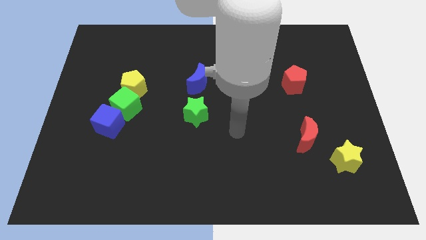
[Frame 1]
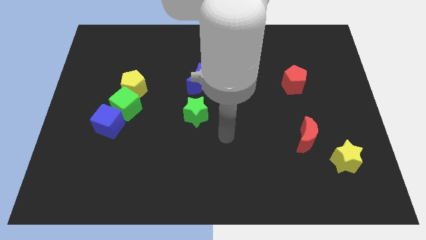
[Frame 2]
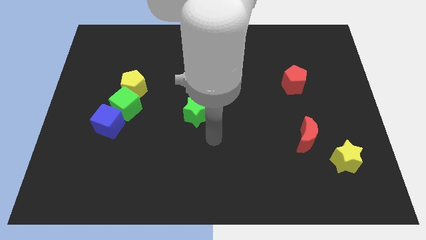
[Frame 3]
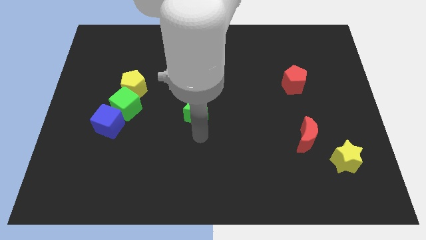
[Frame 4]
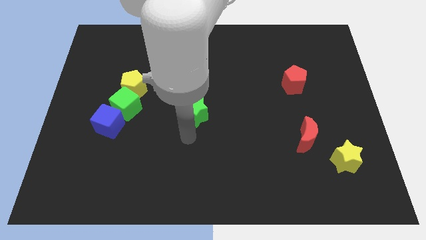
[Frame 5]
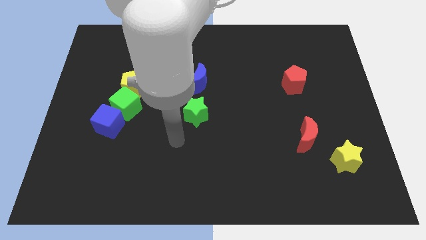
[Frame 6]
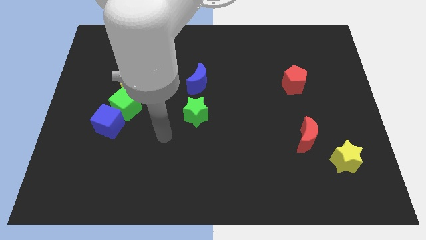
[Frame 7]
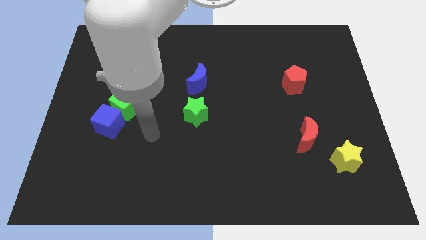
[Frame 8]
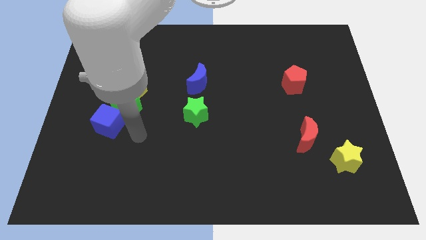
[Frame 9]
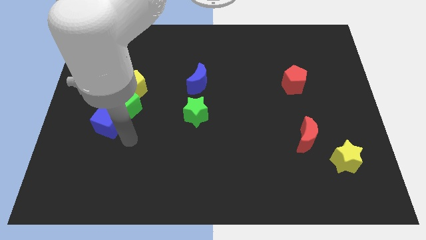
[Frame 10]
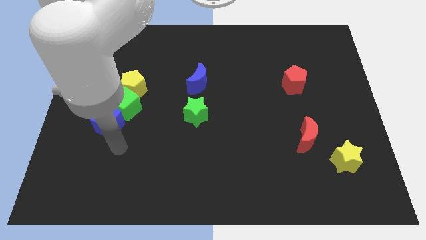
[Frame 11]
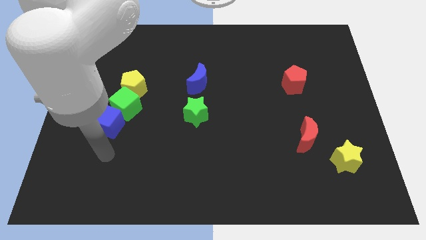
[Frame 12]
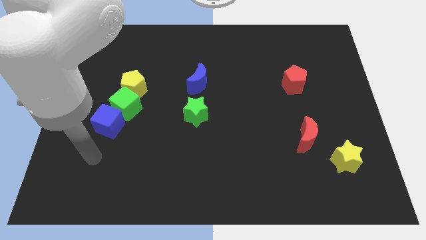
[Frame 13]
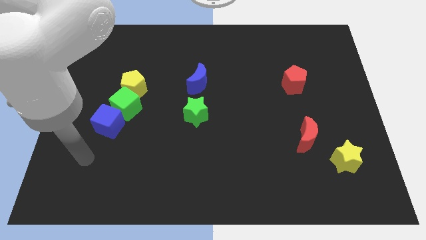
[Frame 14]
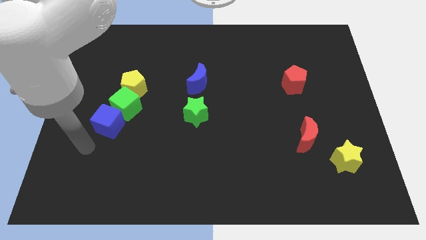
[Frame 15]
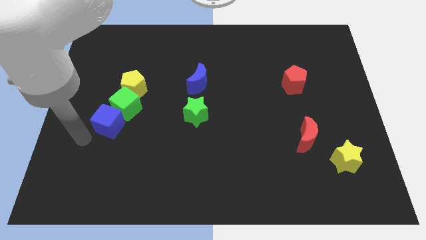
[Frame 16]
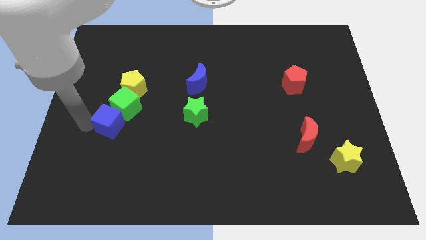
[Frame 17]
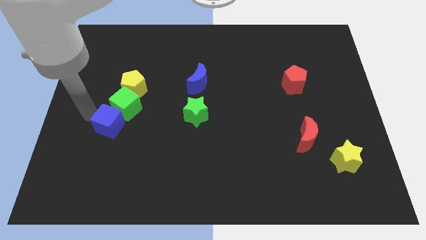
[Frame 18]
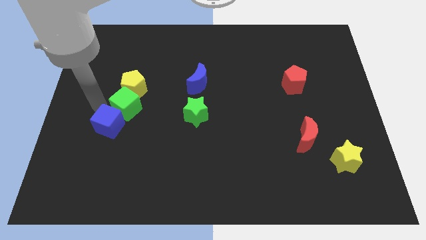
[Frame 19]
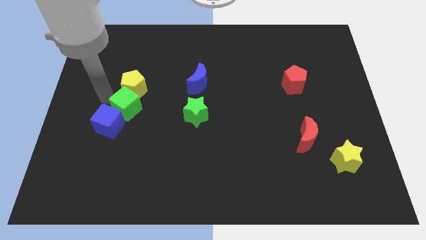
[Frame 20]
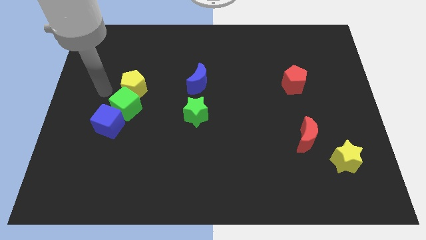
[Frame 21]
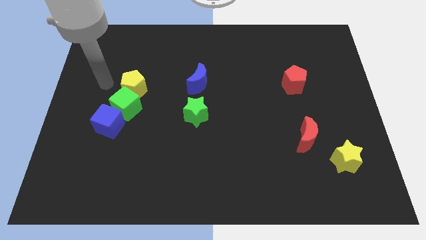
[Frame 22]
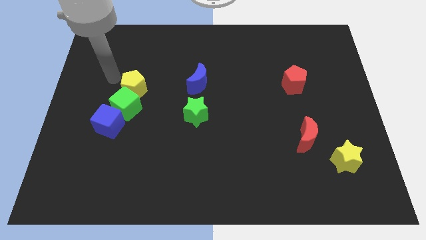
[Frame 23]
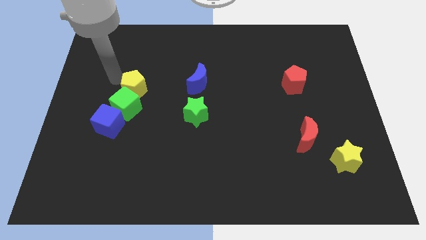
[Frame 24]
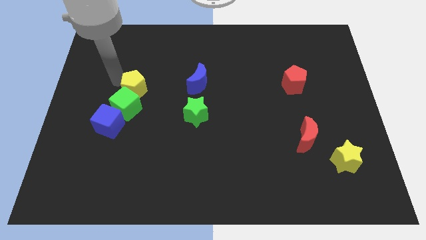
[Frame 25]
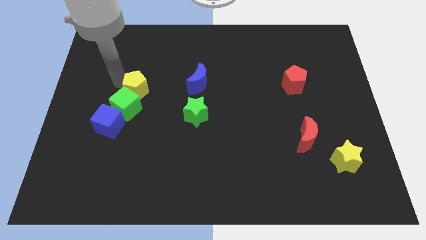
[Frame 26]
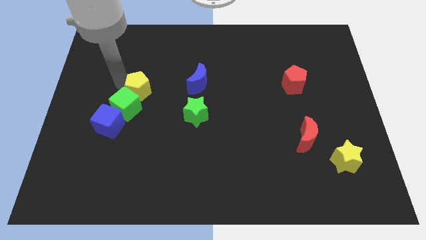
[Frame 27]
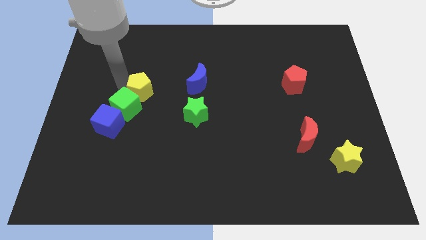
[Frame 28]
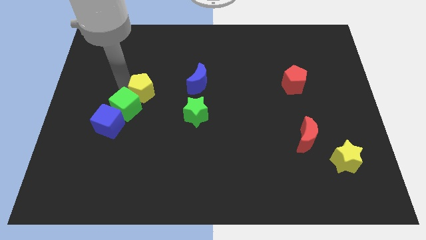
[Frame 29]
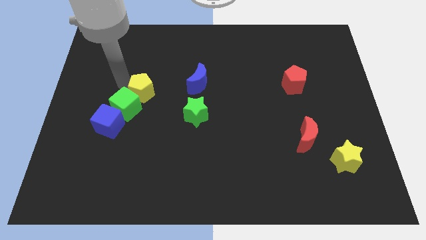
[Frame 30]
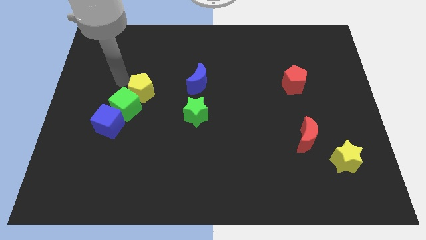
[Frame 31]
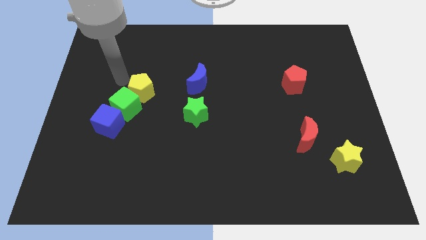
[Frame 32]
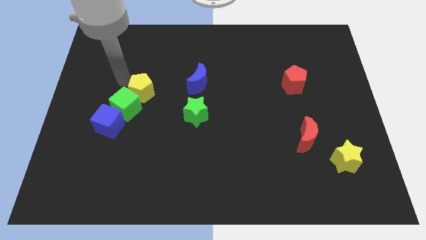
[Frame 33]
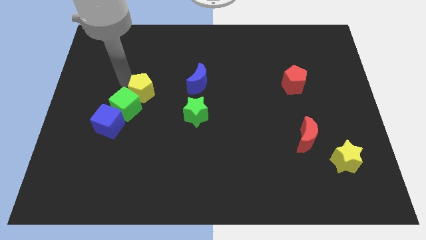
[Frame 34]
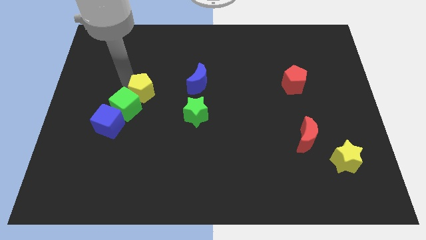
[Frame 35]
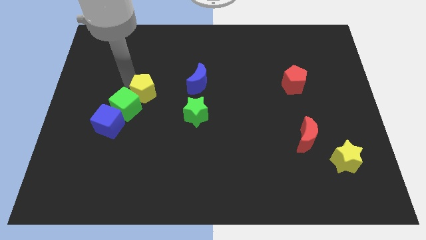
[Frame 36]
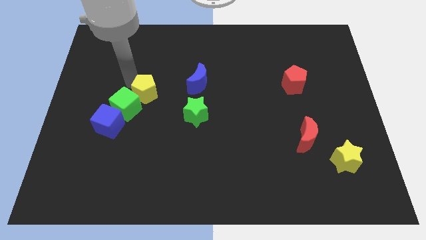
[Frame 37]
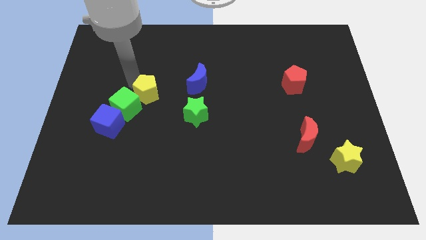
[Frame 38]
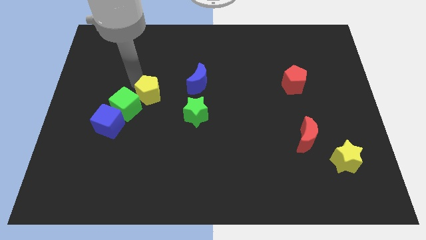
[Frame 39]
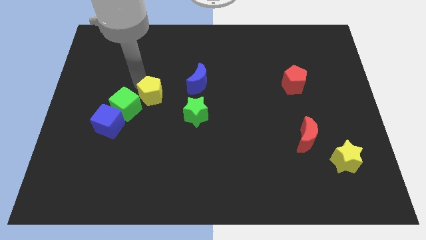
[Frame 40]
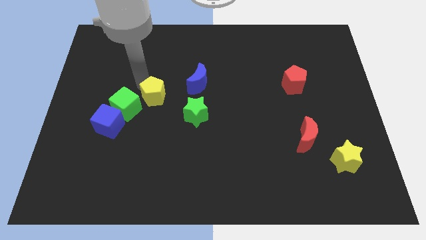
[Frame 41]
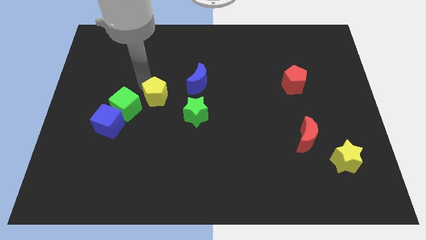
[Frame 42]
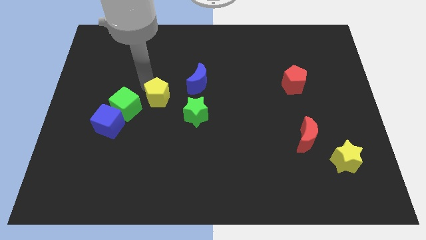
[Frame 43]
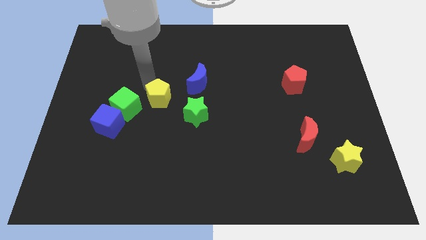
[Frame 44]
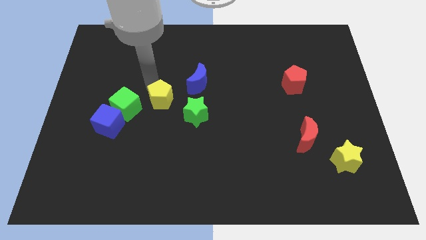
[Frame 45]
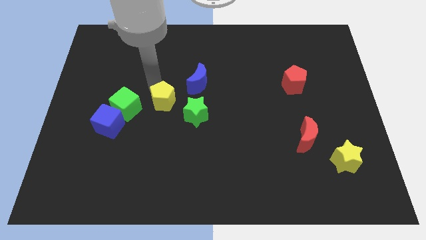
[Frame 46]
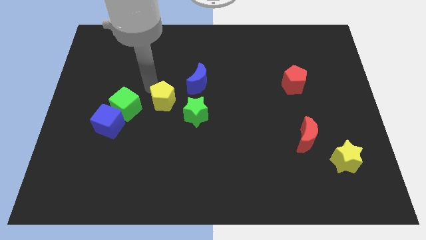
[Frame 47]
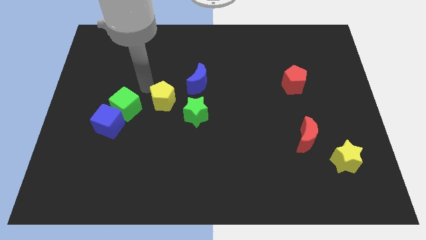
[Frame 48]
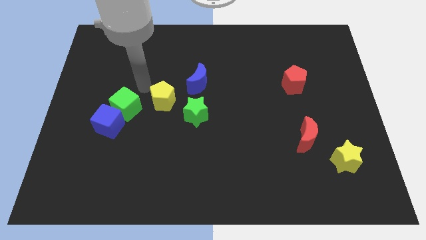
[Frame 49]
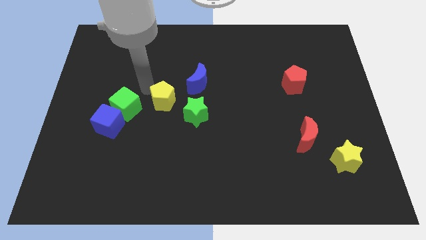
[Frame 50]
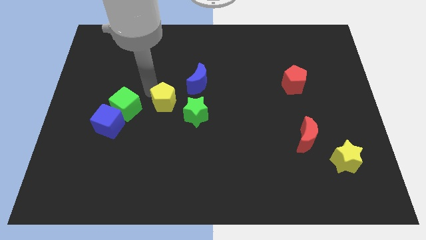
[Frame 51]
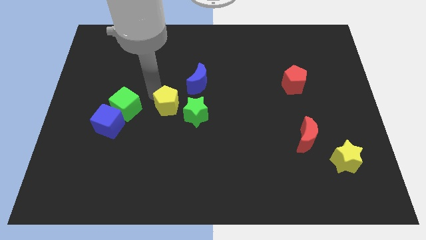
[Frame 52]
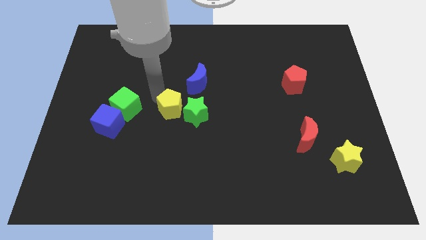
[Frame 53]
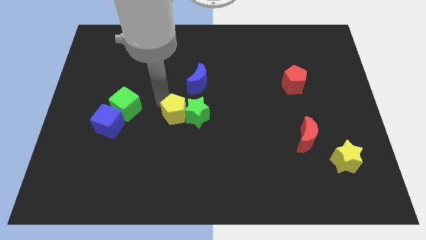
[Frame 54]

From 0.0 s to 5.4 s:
push the yellow pentagon next to the green star

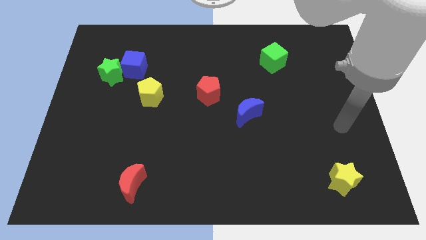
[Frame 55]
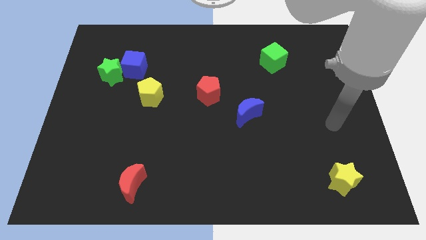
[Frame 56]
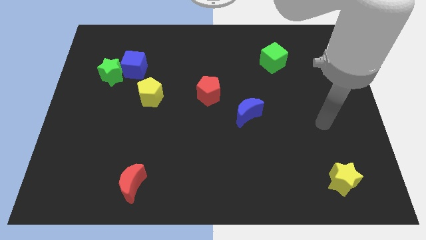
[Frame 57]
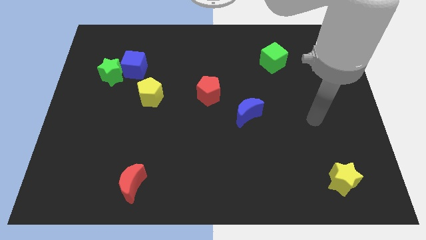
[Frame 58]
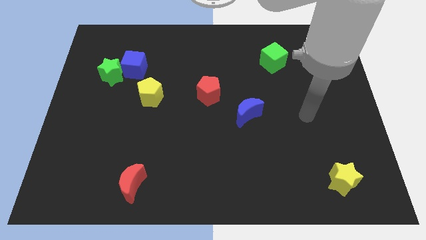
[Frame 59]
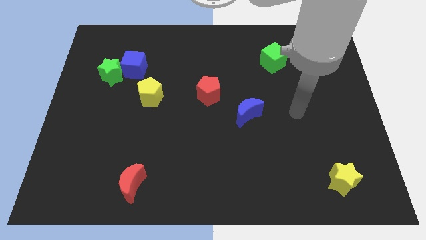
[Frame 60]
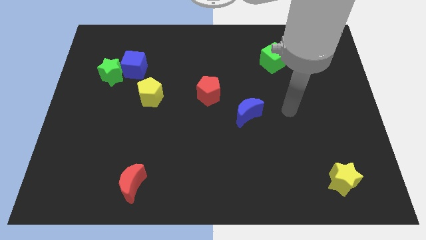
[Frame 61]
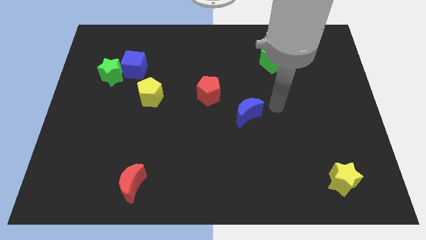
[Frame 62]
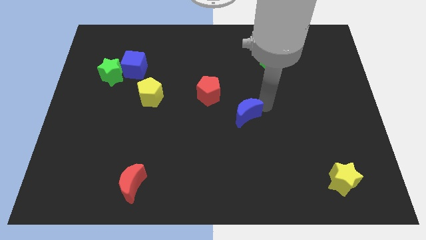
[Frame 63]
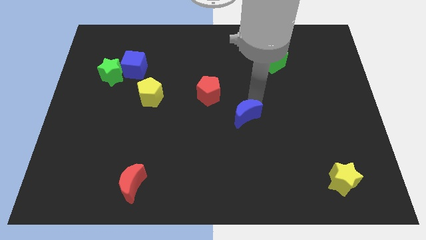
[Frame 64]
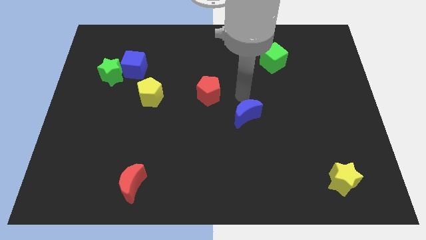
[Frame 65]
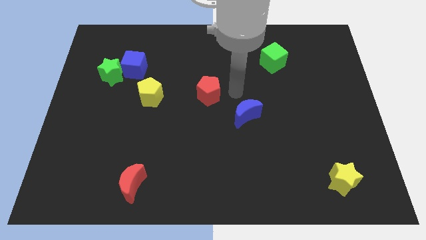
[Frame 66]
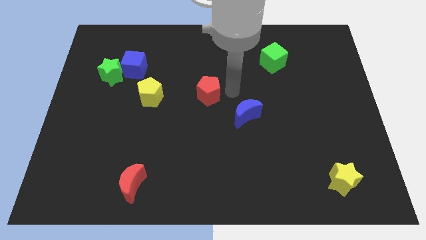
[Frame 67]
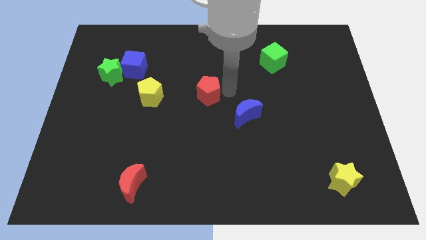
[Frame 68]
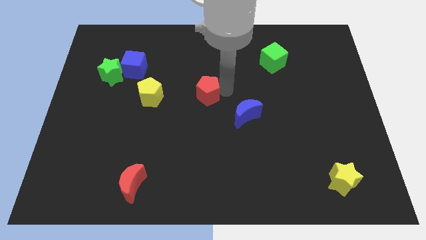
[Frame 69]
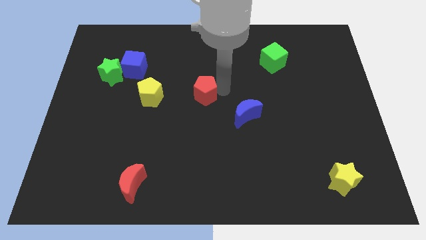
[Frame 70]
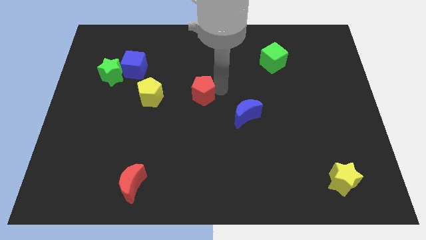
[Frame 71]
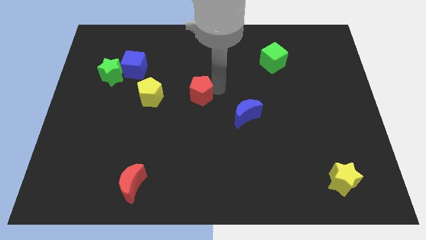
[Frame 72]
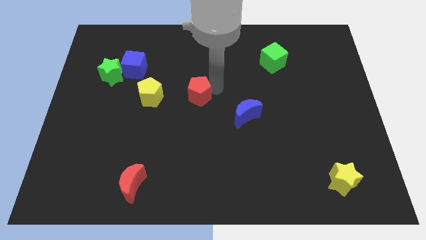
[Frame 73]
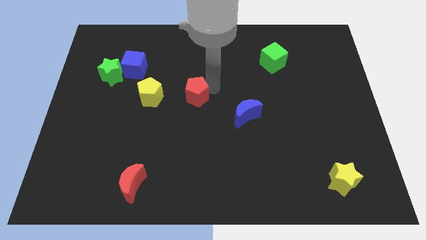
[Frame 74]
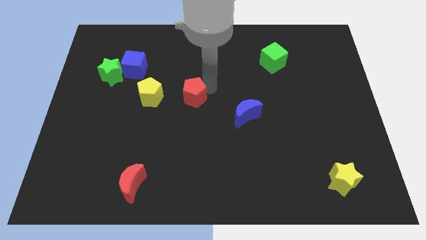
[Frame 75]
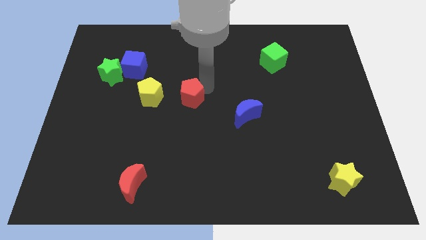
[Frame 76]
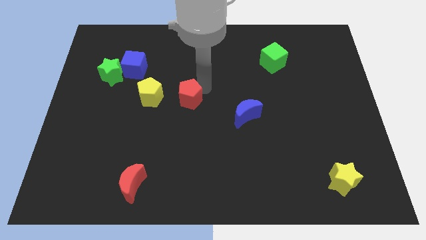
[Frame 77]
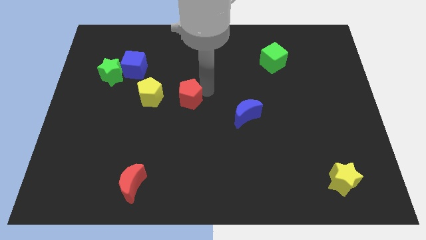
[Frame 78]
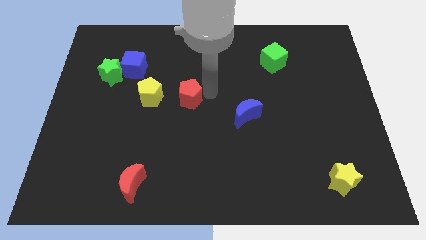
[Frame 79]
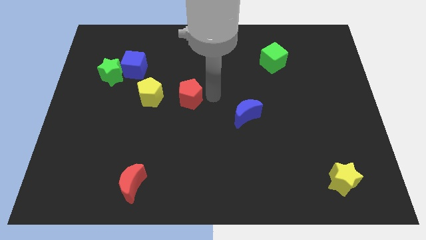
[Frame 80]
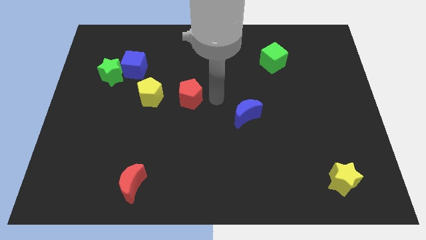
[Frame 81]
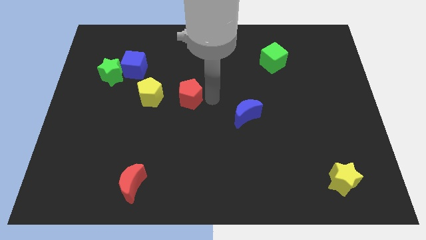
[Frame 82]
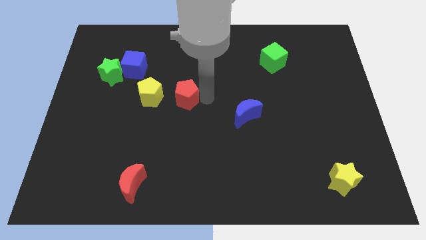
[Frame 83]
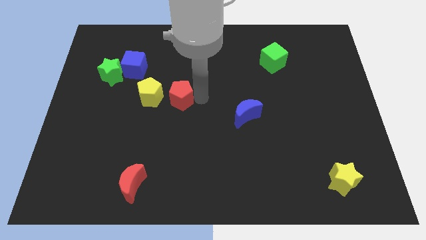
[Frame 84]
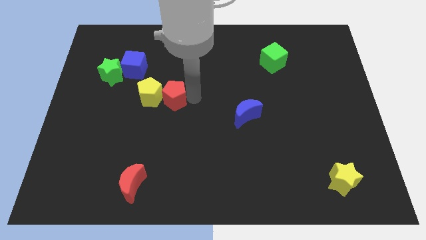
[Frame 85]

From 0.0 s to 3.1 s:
push the red pentagon to the yellow pentagon
